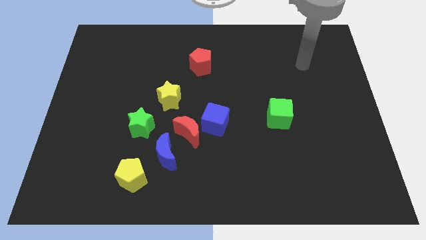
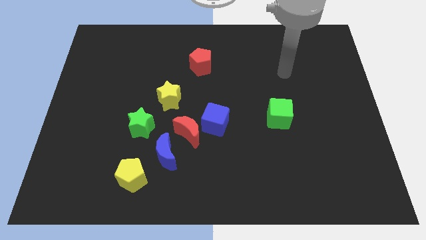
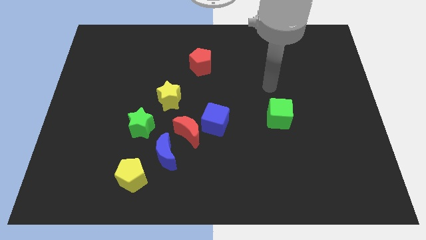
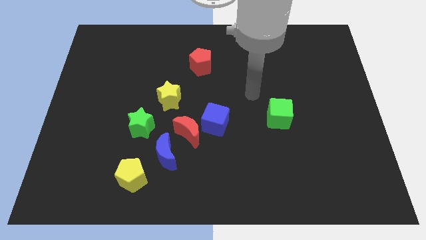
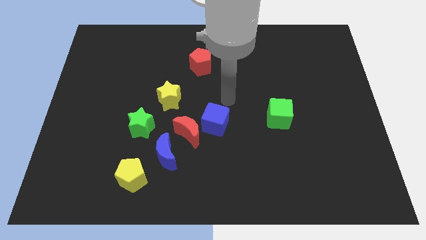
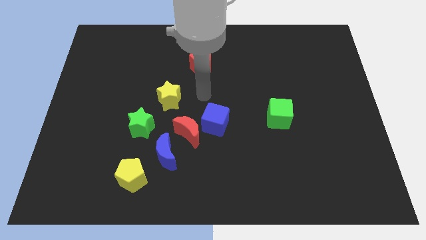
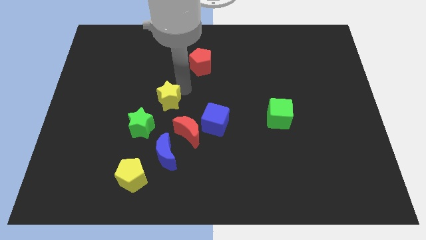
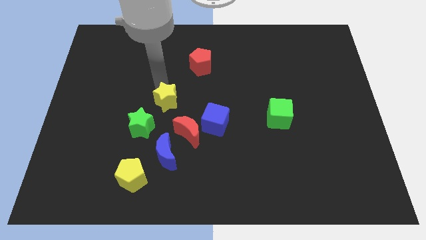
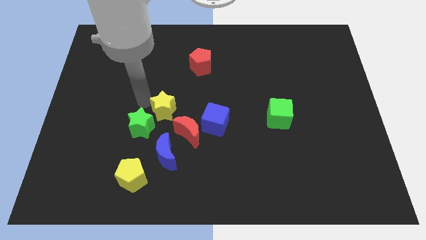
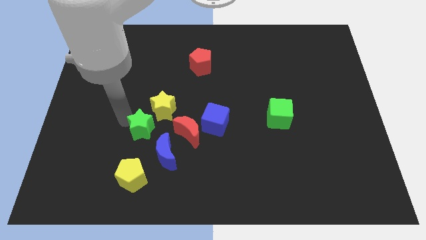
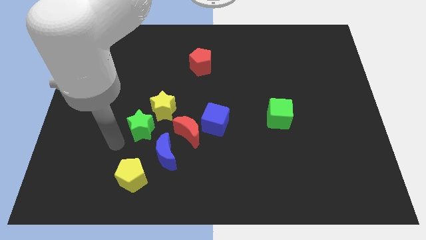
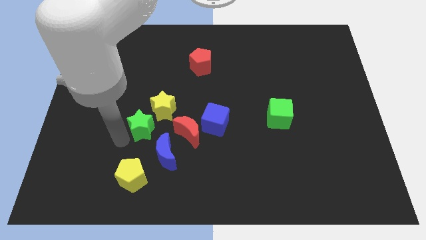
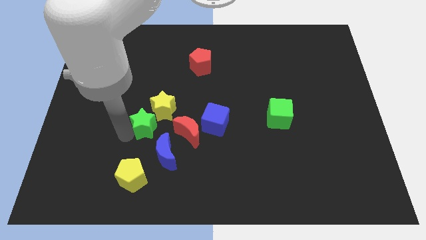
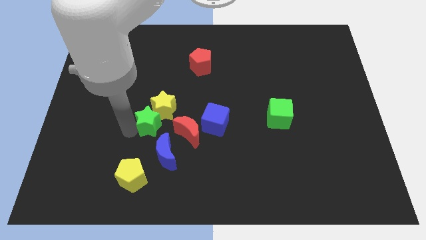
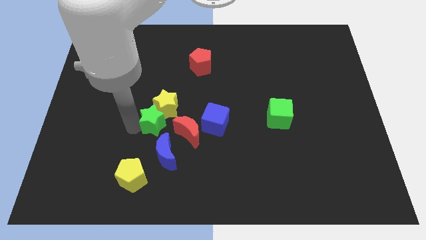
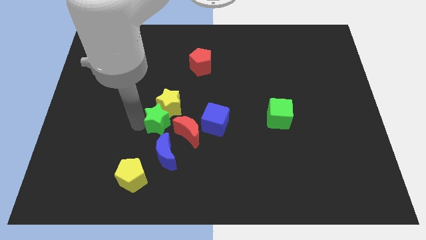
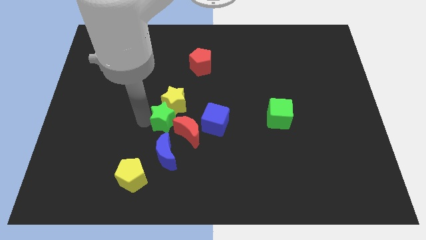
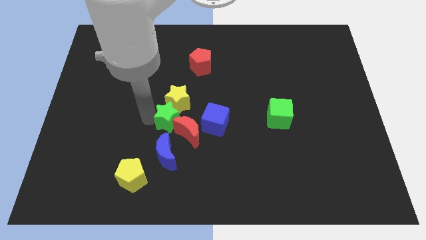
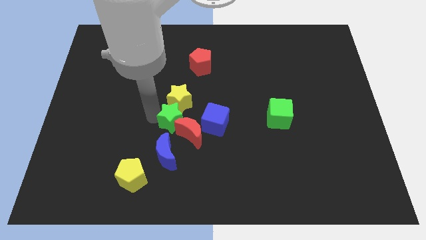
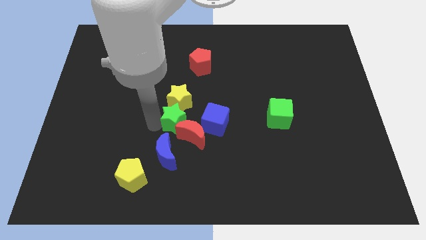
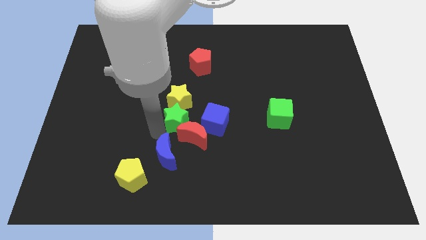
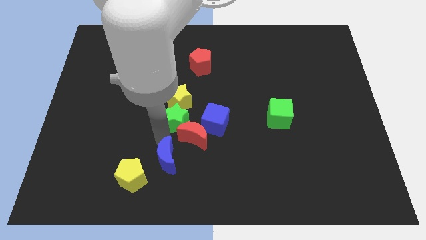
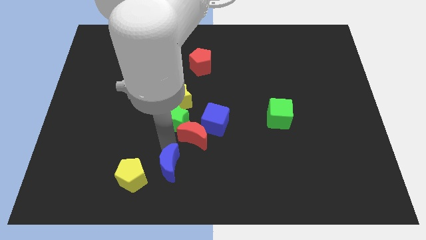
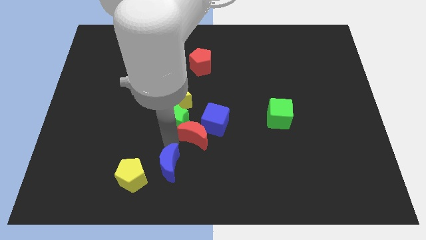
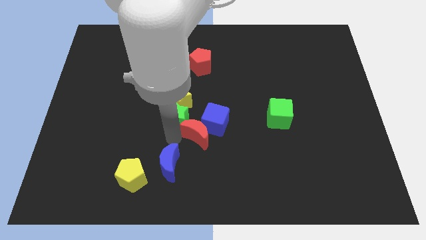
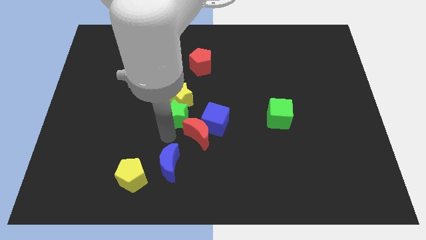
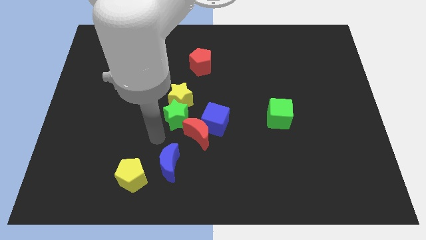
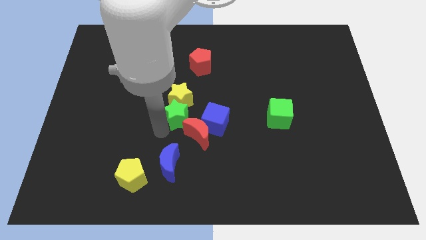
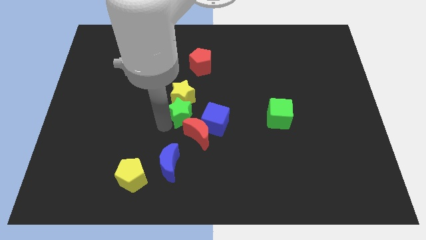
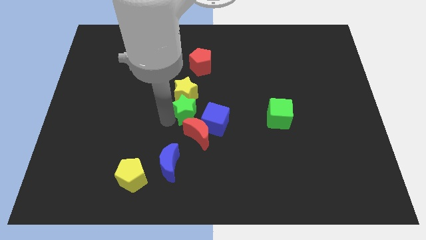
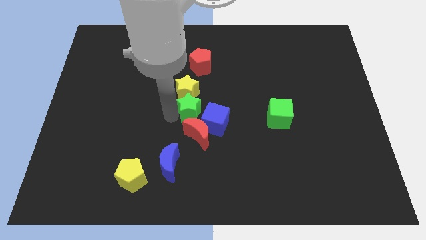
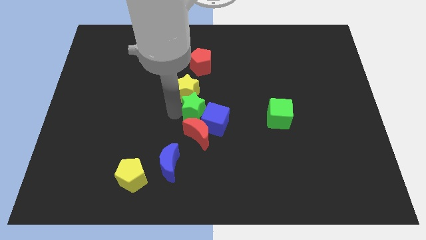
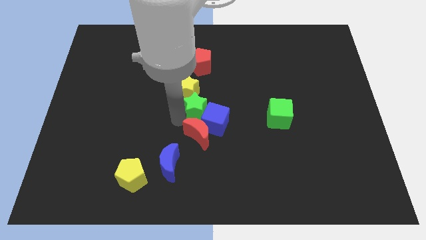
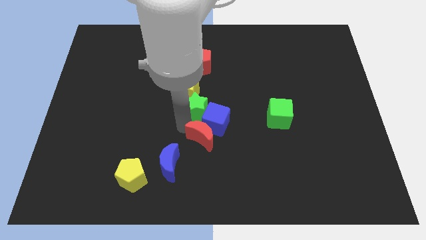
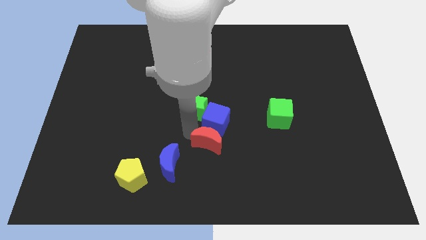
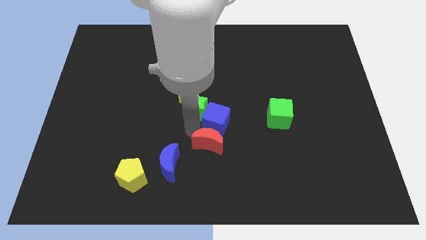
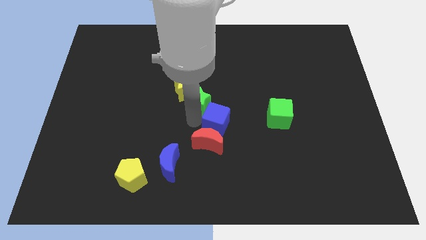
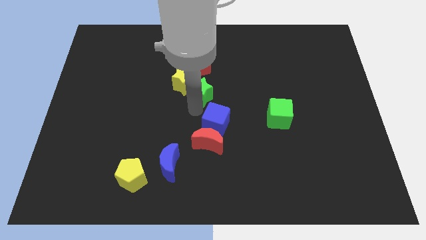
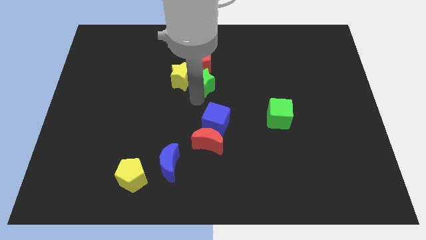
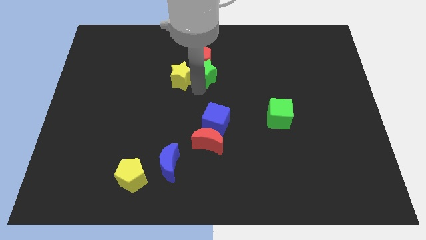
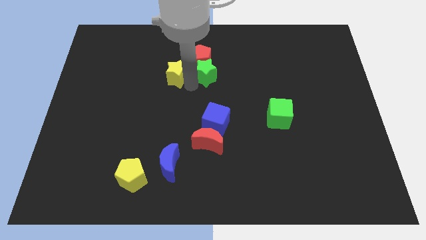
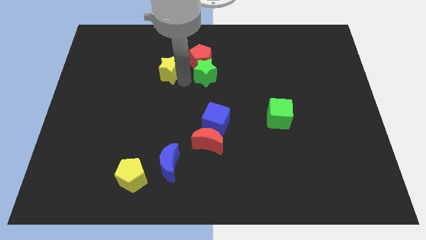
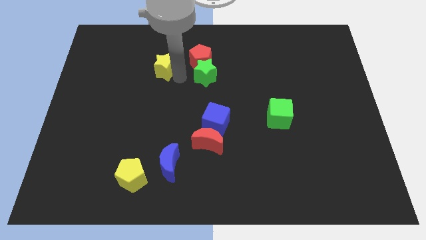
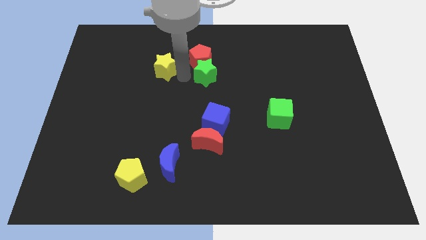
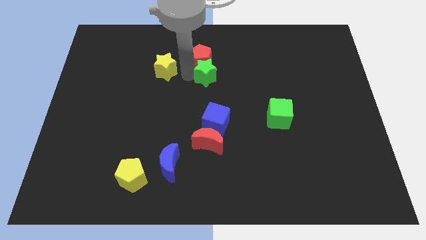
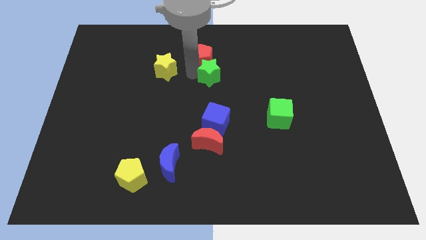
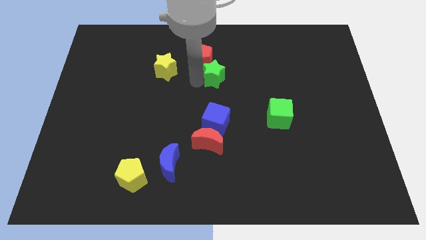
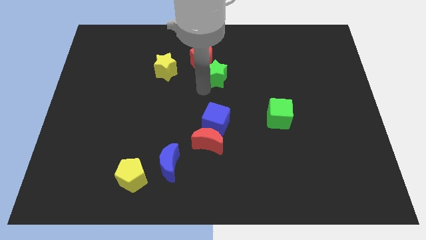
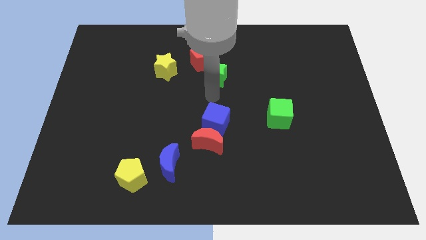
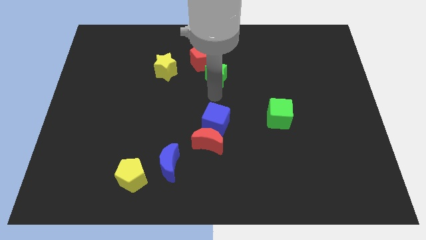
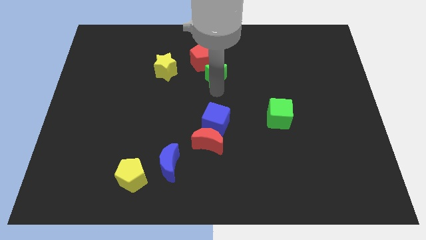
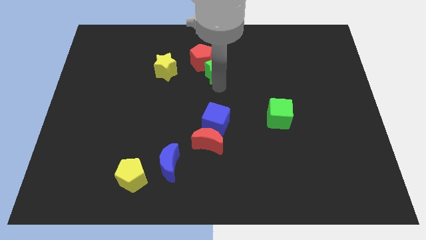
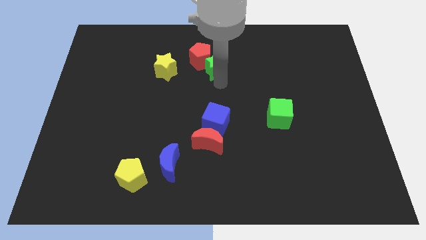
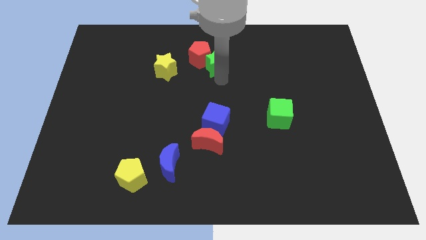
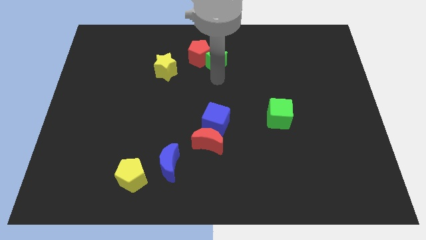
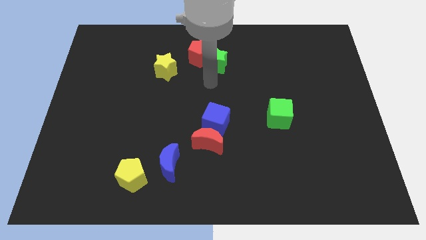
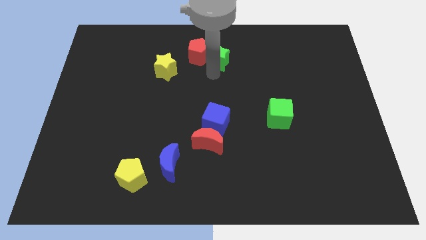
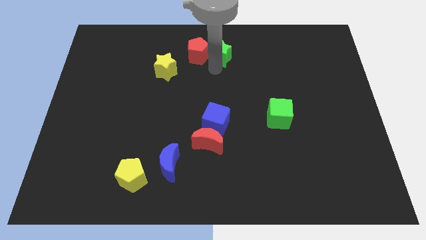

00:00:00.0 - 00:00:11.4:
slide the green star to the towards your base

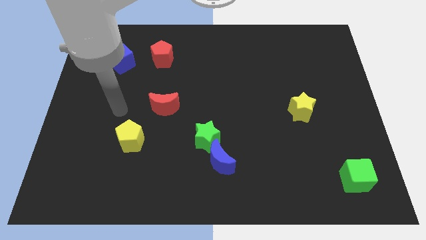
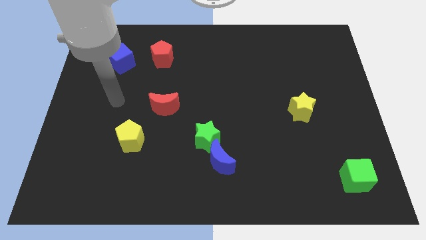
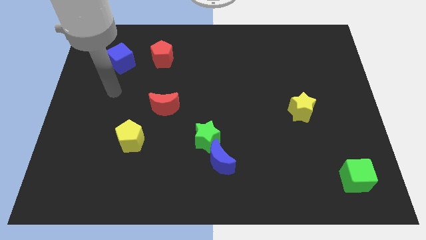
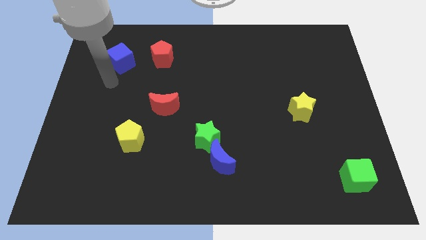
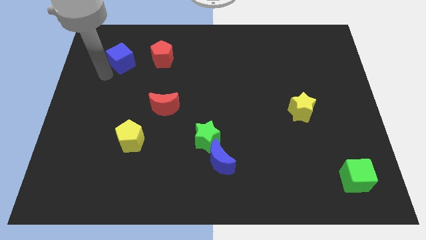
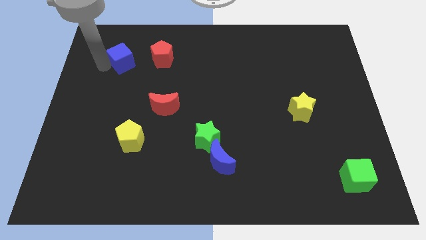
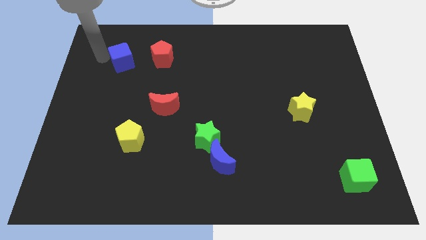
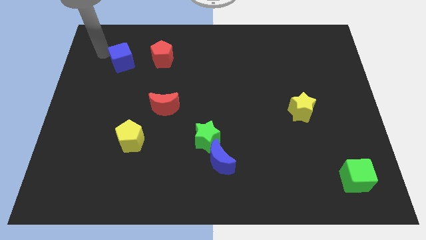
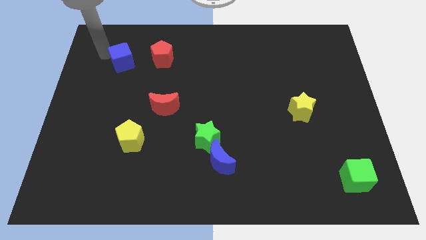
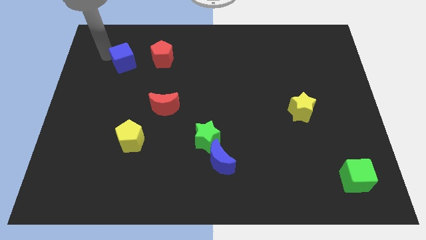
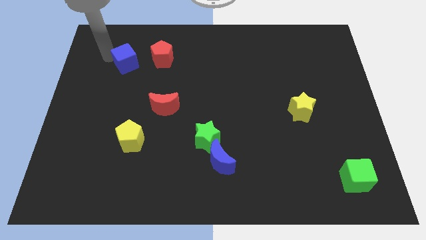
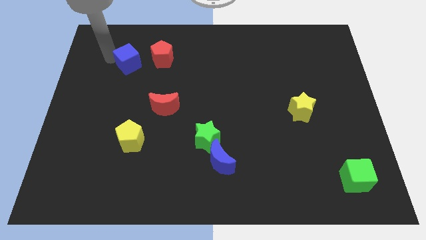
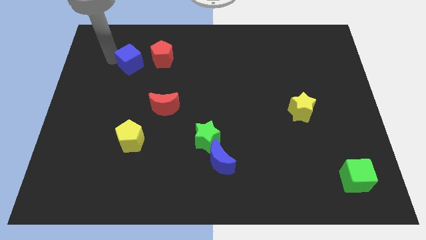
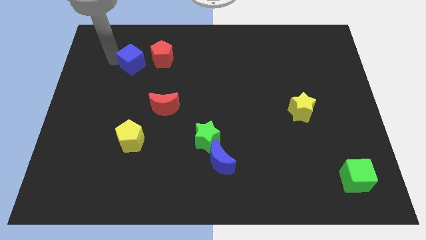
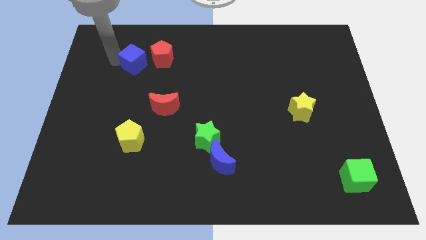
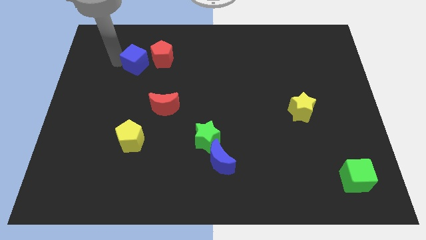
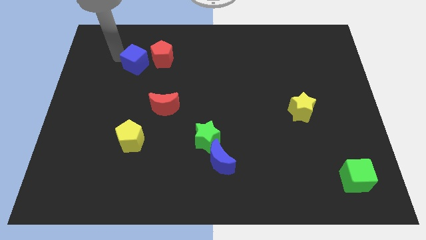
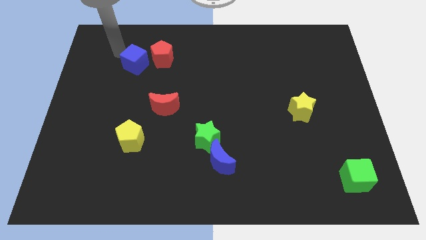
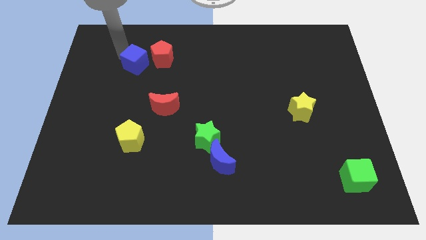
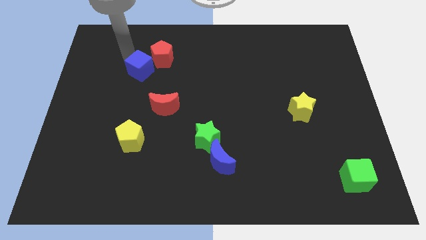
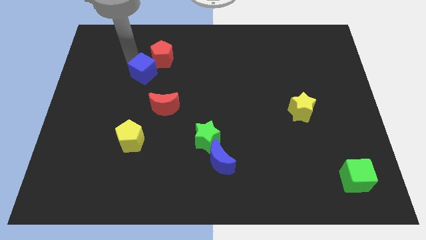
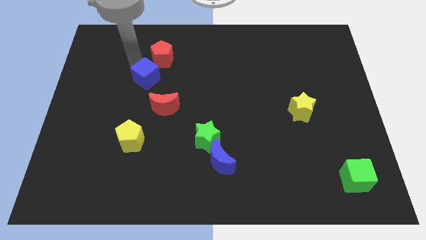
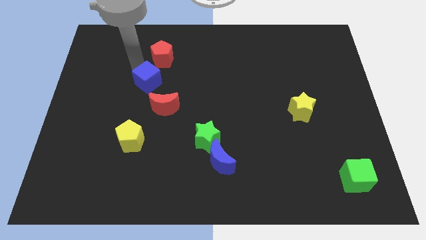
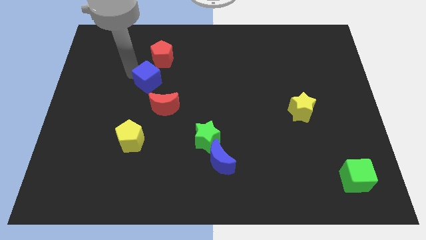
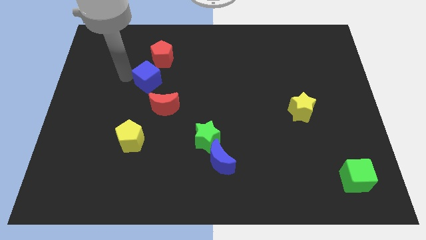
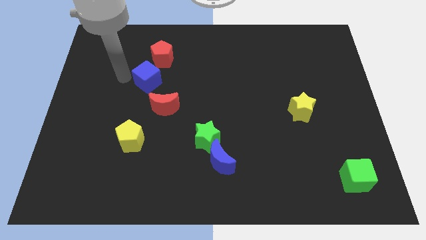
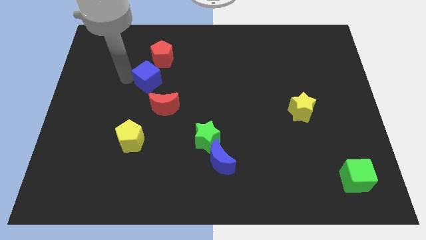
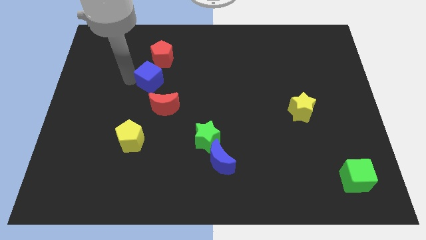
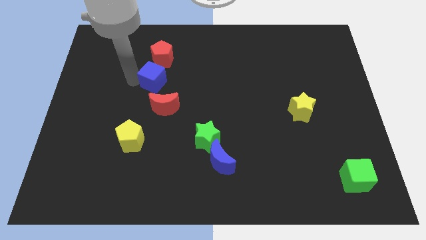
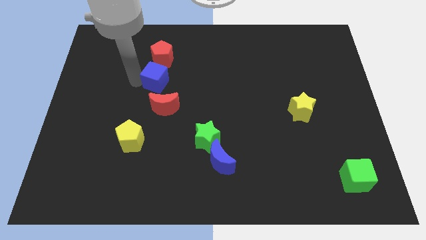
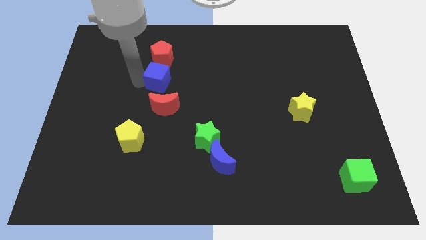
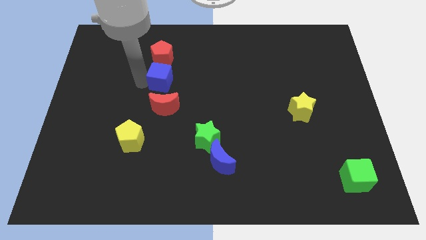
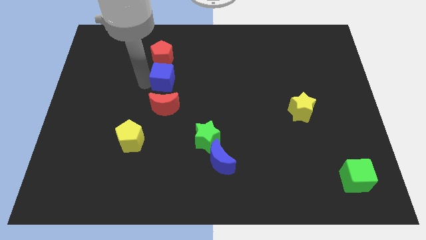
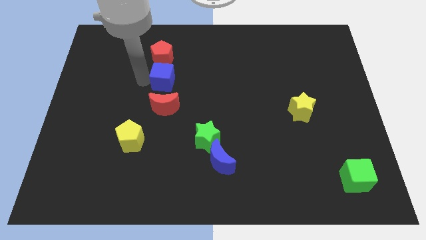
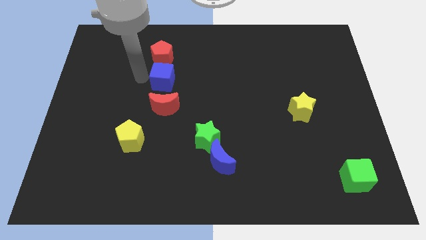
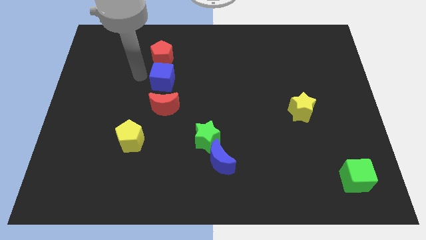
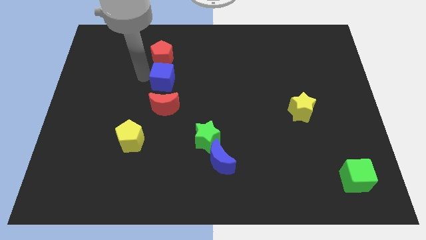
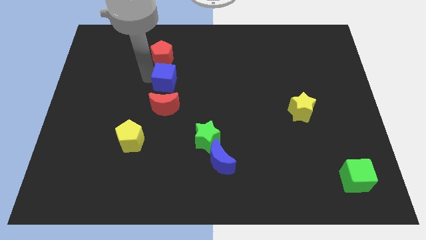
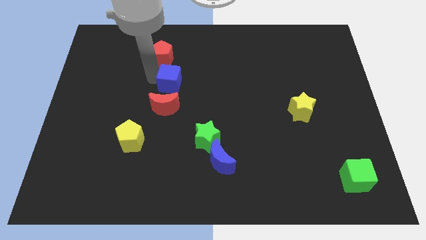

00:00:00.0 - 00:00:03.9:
move the blue cube to the center
